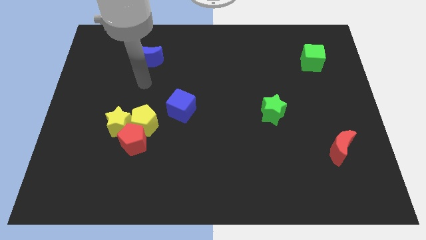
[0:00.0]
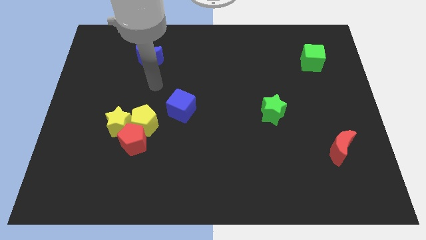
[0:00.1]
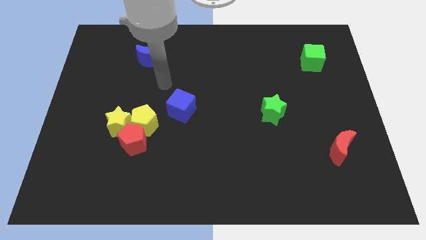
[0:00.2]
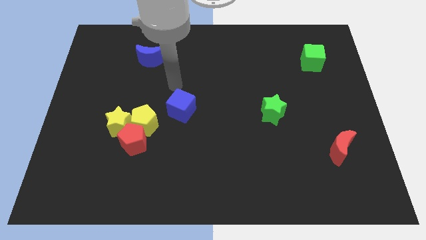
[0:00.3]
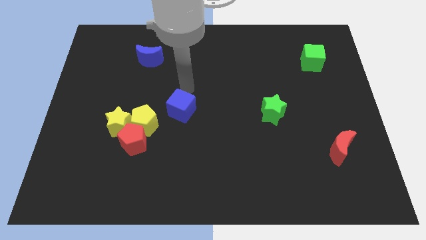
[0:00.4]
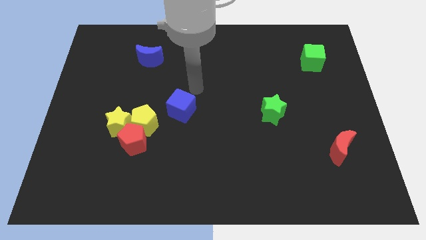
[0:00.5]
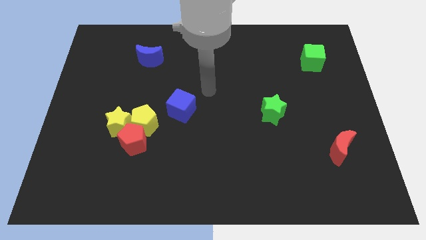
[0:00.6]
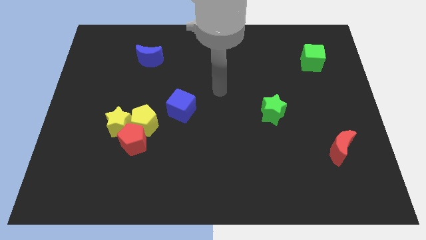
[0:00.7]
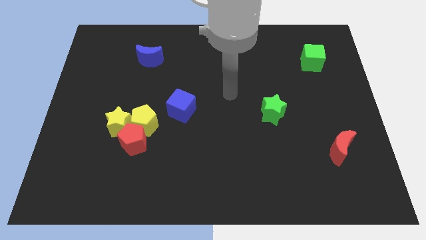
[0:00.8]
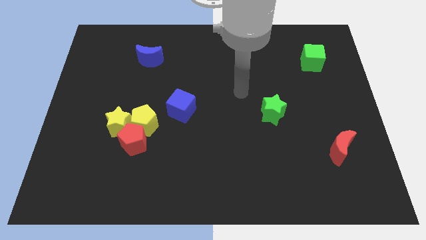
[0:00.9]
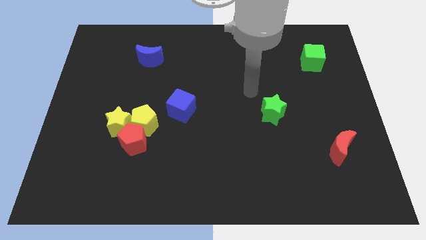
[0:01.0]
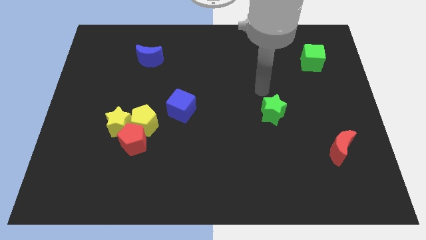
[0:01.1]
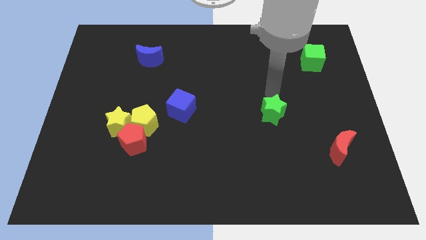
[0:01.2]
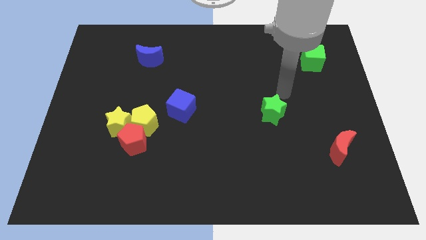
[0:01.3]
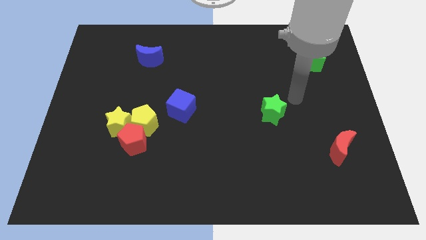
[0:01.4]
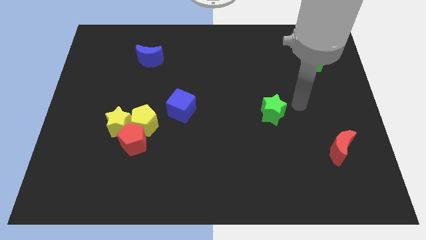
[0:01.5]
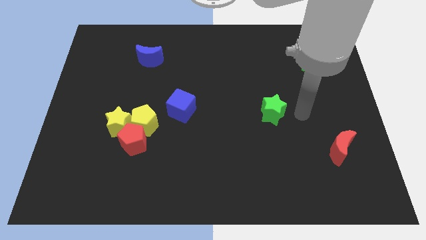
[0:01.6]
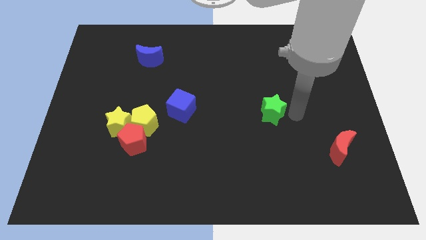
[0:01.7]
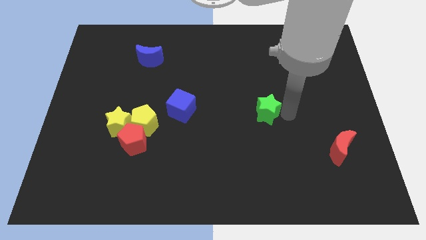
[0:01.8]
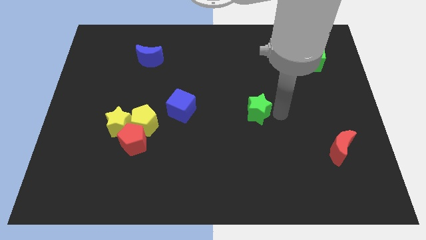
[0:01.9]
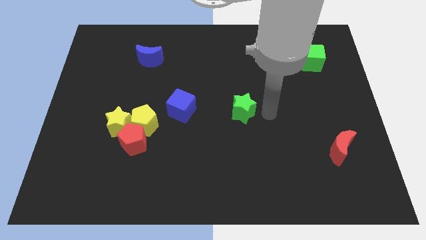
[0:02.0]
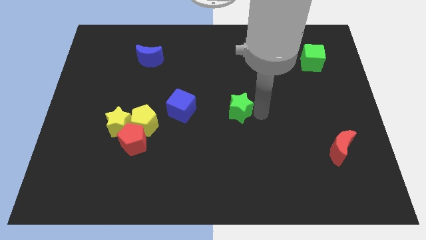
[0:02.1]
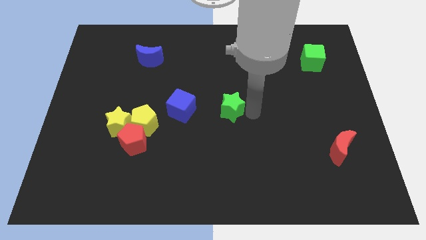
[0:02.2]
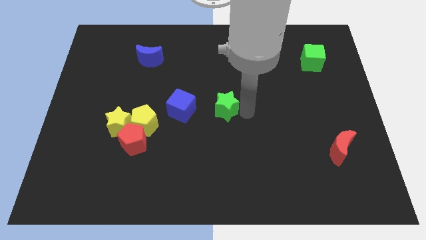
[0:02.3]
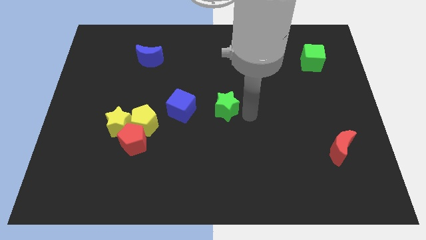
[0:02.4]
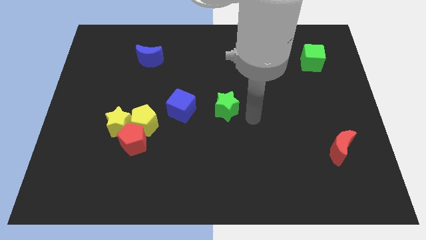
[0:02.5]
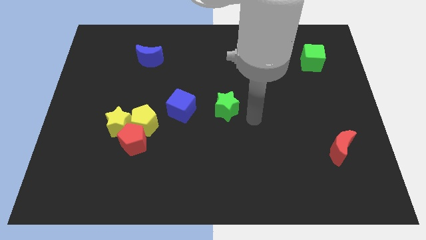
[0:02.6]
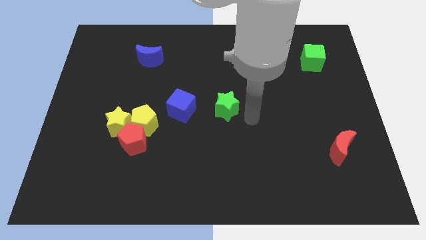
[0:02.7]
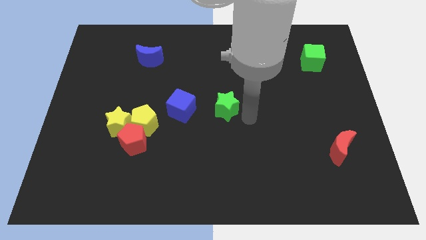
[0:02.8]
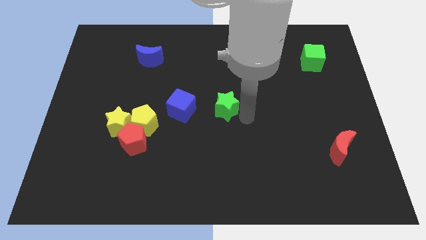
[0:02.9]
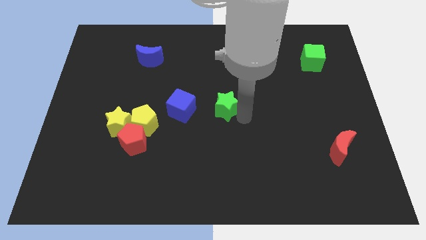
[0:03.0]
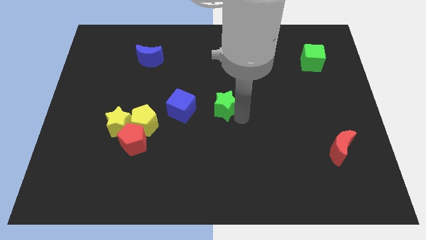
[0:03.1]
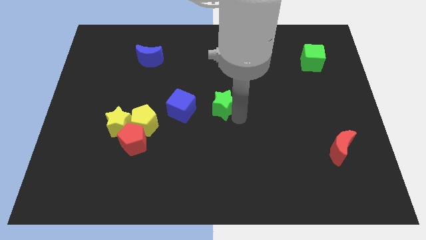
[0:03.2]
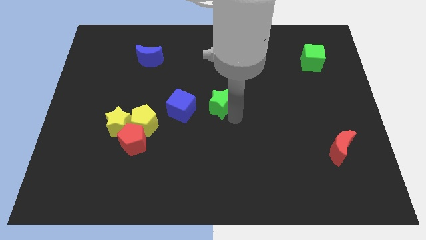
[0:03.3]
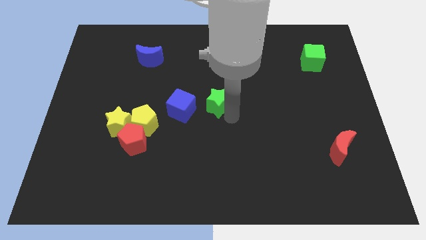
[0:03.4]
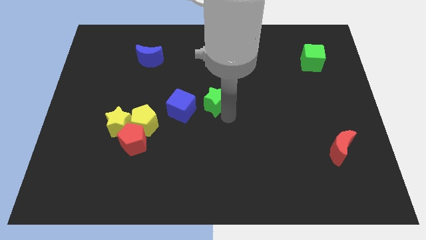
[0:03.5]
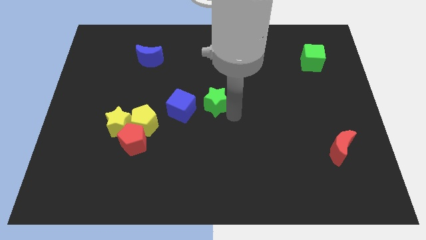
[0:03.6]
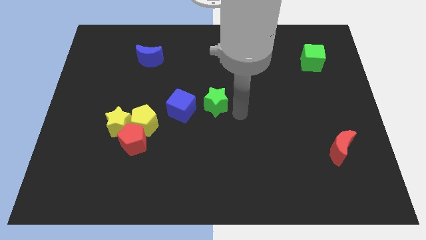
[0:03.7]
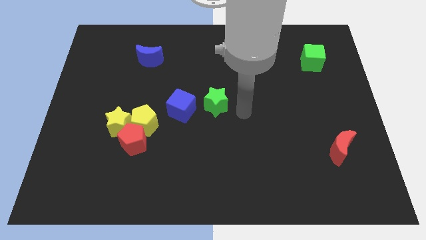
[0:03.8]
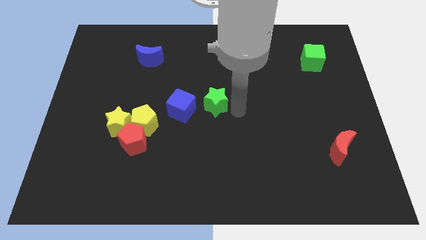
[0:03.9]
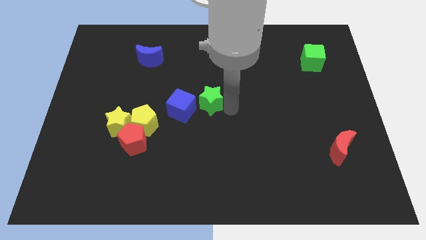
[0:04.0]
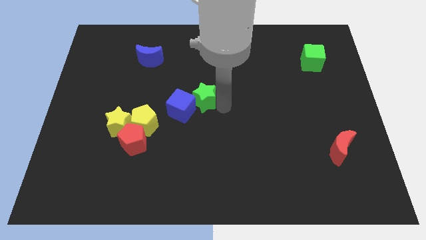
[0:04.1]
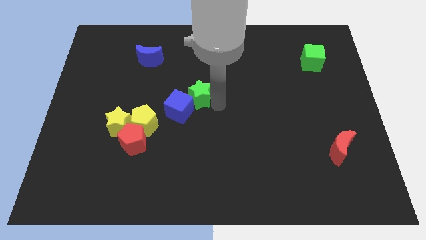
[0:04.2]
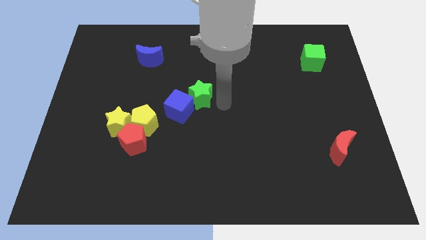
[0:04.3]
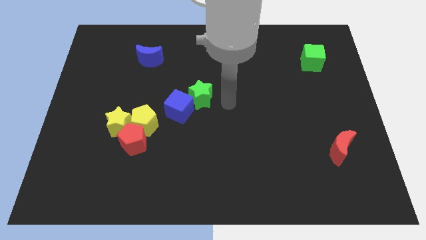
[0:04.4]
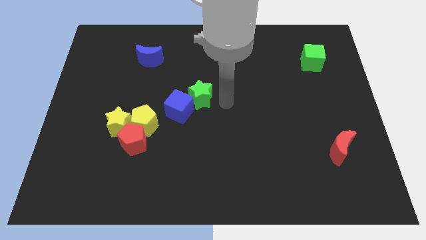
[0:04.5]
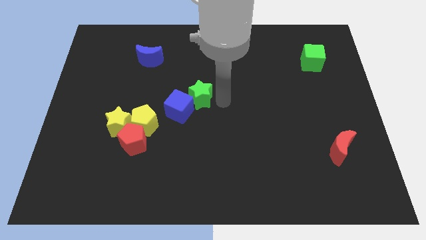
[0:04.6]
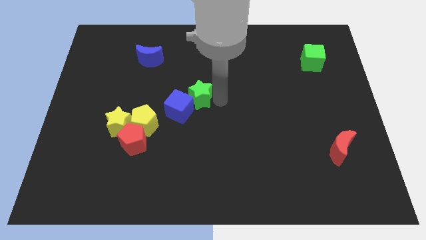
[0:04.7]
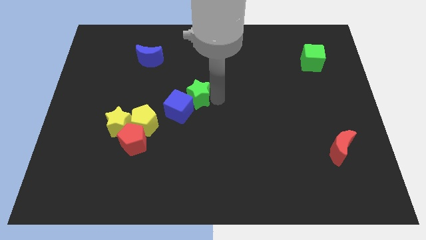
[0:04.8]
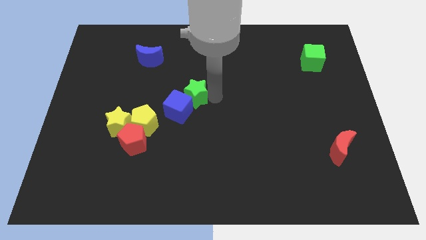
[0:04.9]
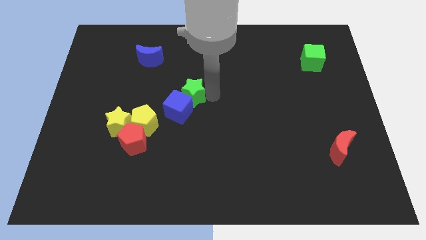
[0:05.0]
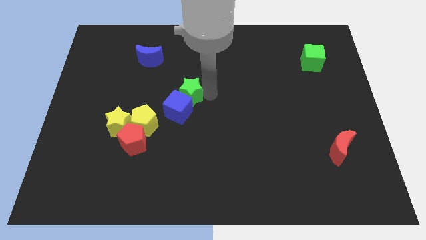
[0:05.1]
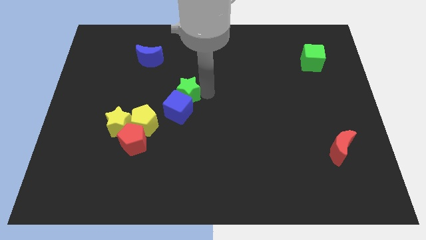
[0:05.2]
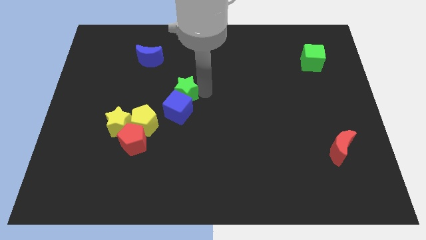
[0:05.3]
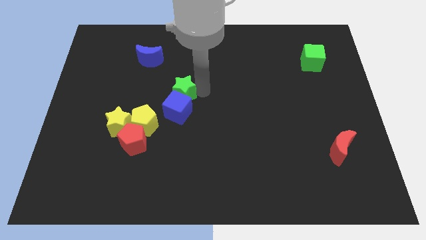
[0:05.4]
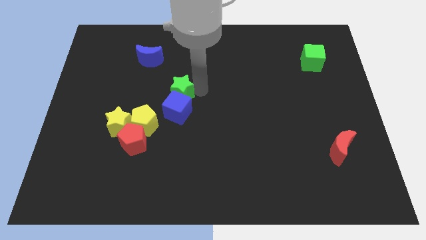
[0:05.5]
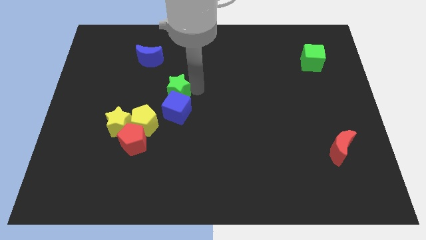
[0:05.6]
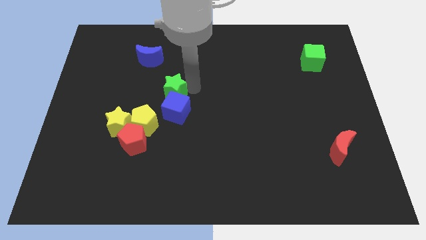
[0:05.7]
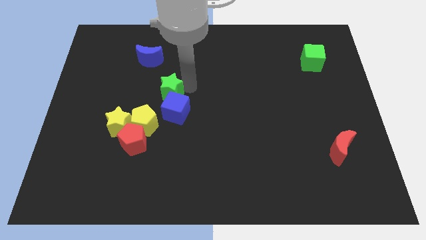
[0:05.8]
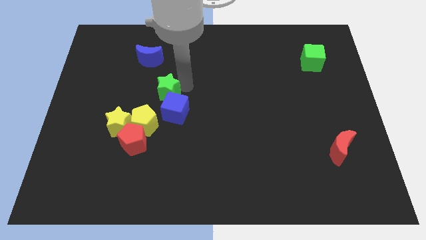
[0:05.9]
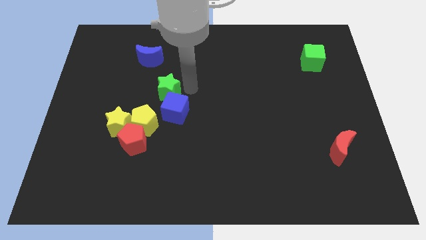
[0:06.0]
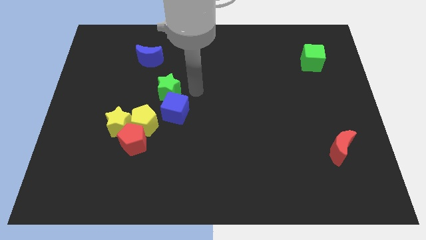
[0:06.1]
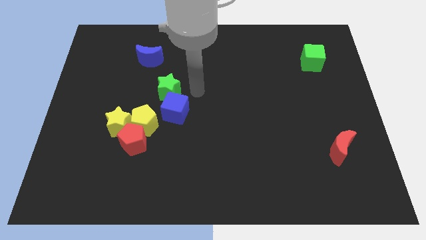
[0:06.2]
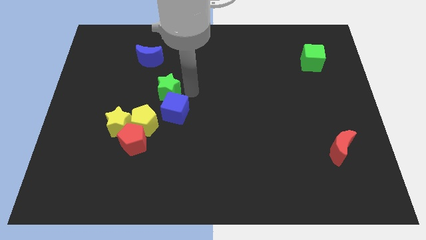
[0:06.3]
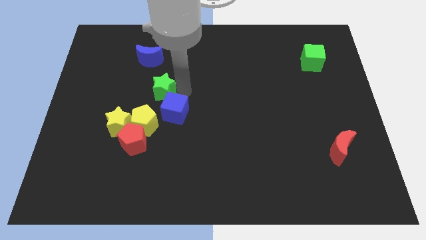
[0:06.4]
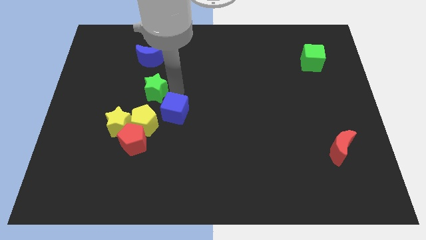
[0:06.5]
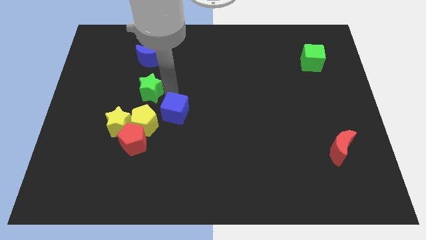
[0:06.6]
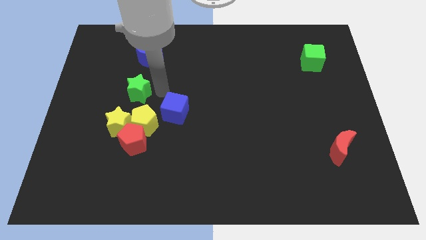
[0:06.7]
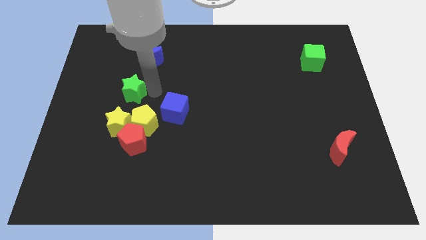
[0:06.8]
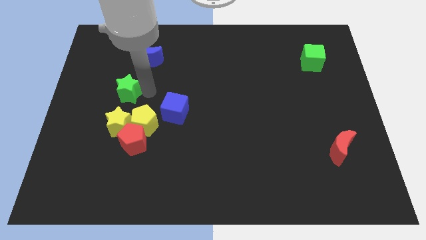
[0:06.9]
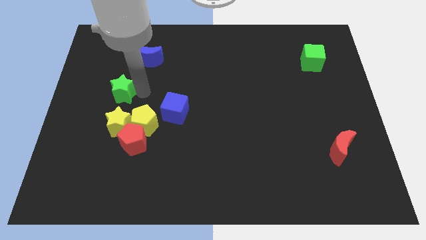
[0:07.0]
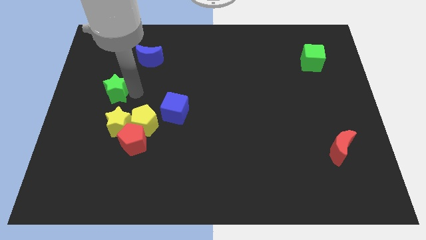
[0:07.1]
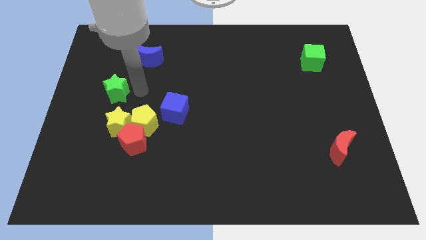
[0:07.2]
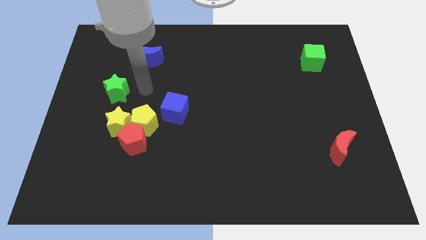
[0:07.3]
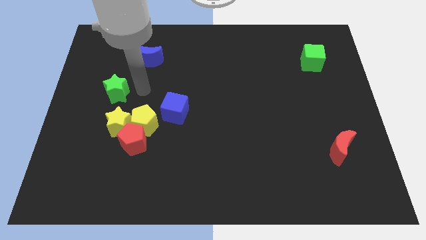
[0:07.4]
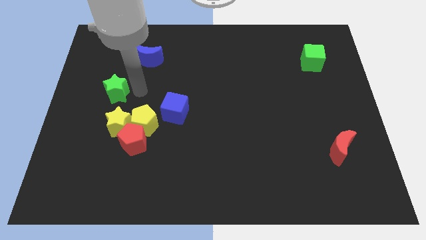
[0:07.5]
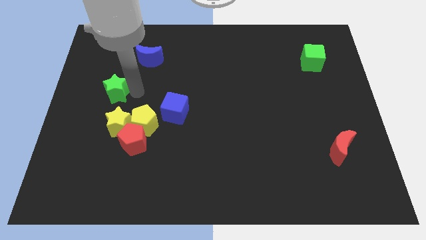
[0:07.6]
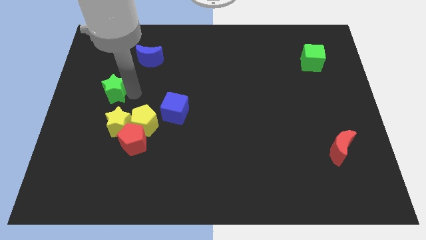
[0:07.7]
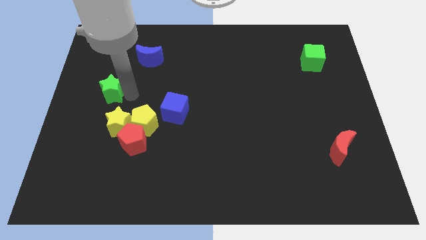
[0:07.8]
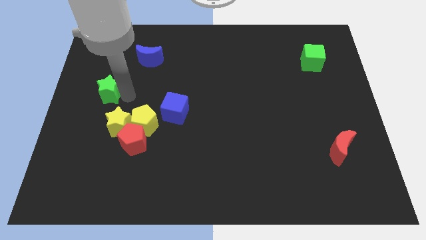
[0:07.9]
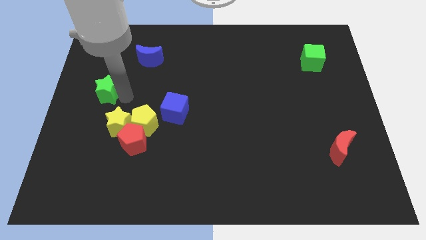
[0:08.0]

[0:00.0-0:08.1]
push the green star to the left side
